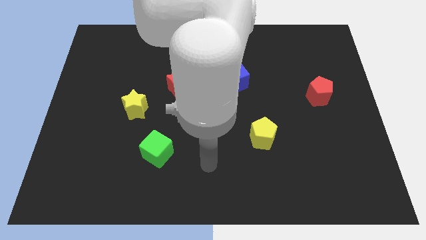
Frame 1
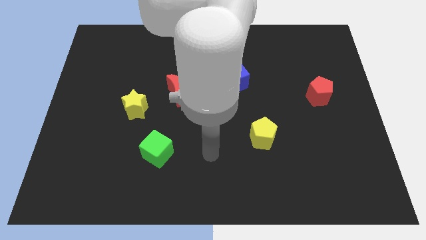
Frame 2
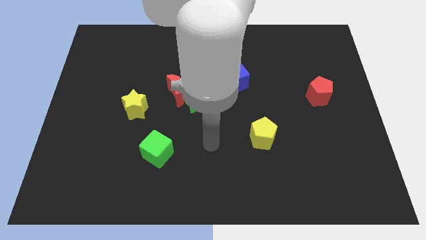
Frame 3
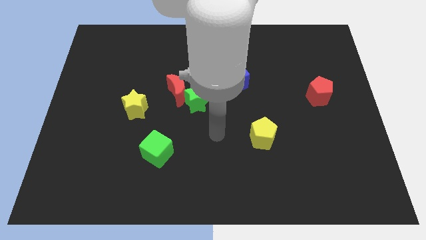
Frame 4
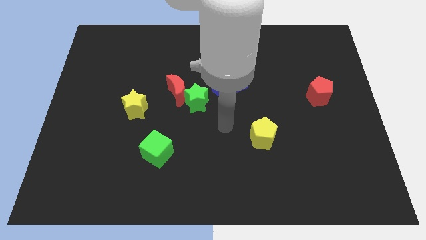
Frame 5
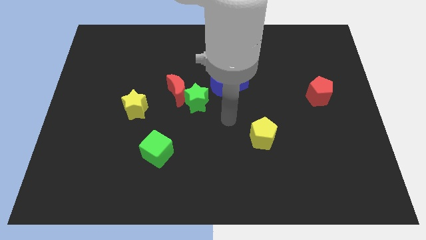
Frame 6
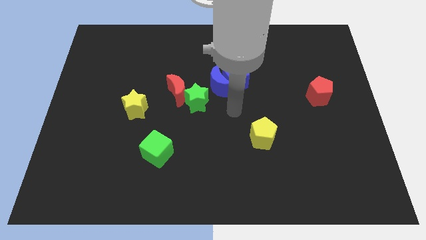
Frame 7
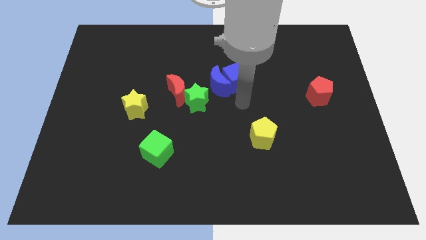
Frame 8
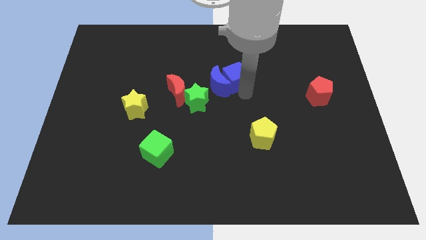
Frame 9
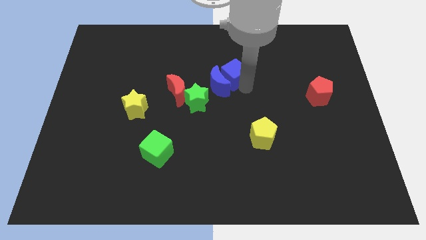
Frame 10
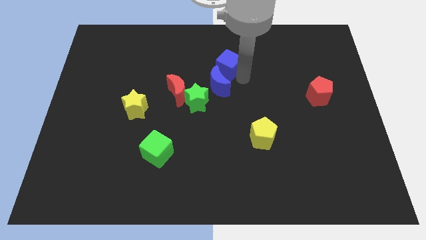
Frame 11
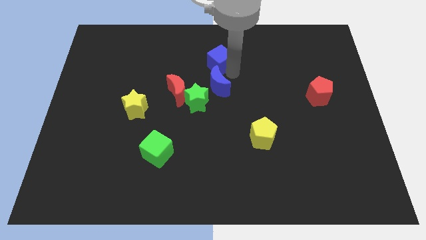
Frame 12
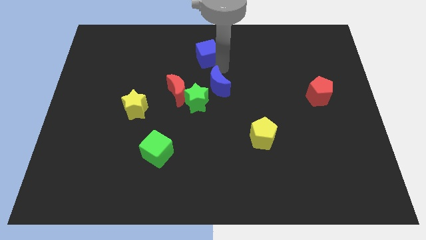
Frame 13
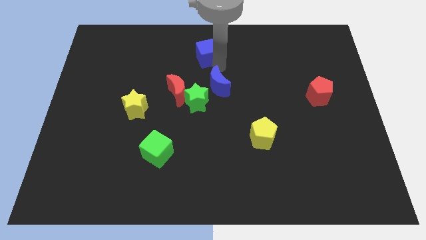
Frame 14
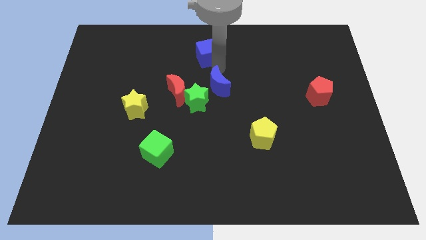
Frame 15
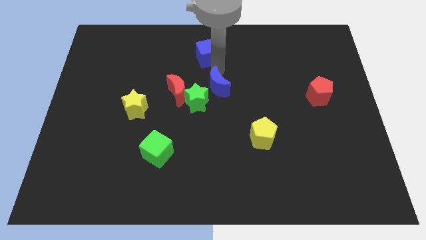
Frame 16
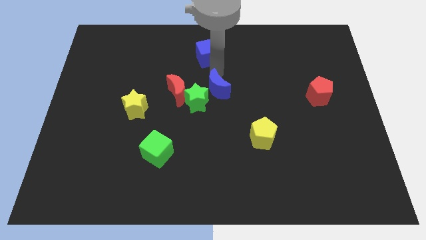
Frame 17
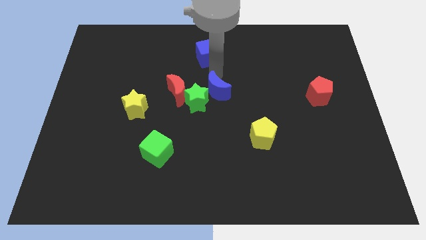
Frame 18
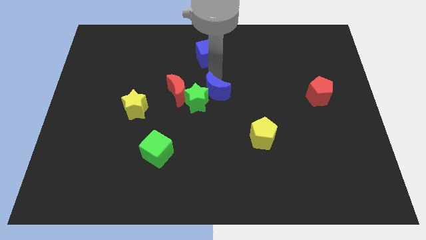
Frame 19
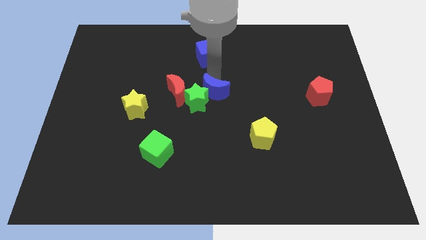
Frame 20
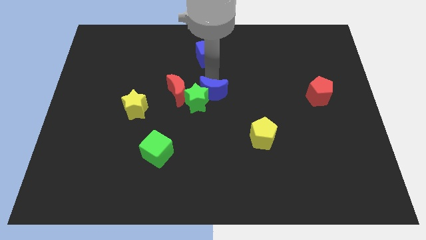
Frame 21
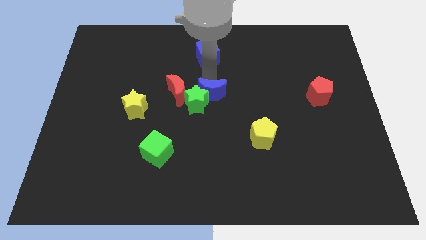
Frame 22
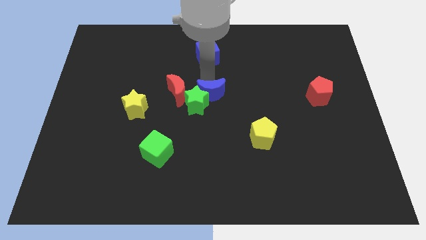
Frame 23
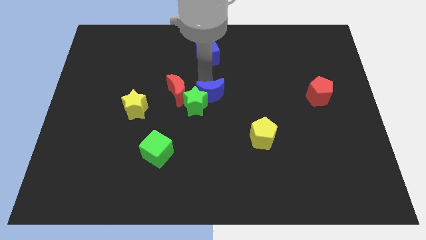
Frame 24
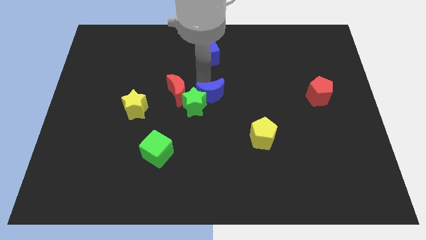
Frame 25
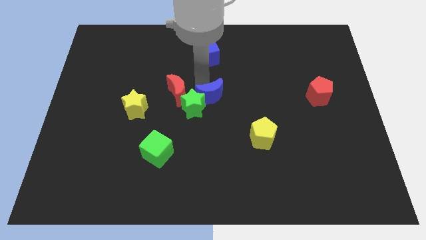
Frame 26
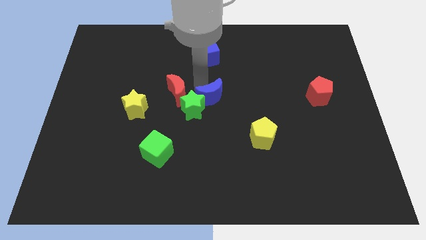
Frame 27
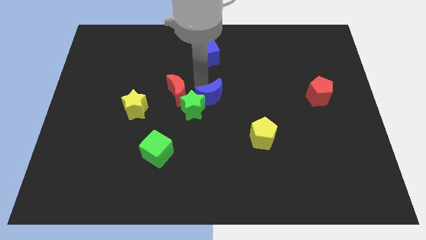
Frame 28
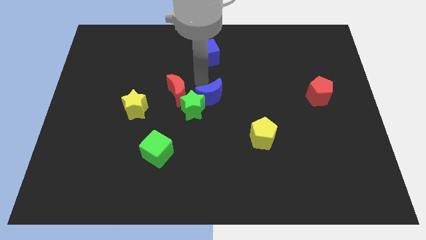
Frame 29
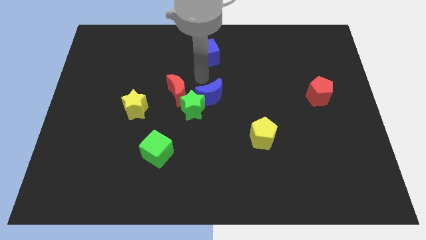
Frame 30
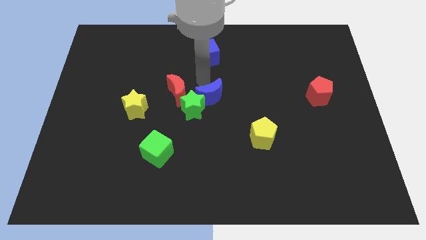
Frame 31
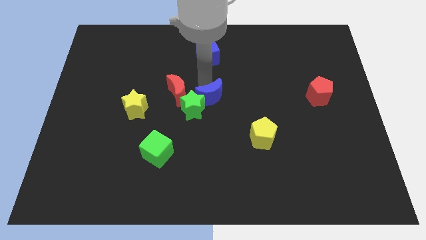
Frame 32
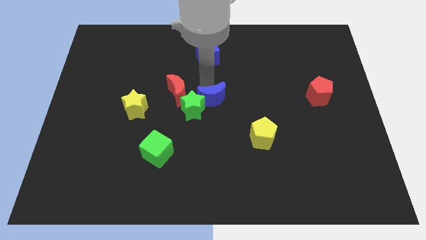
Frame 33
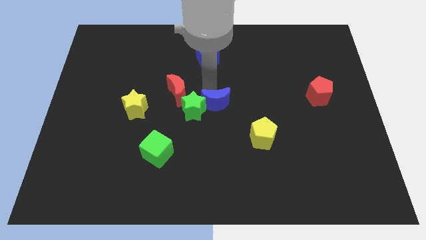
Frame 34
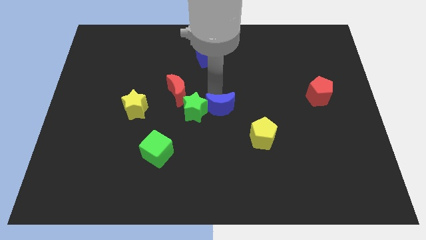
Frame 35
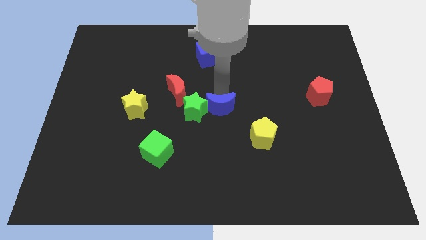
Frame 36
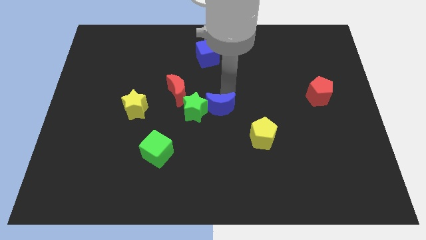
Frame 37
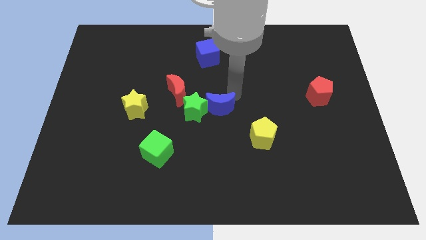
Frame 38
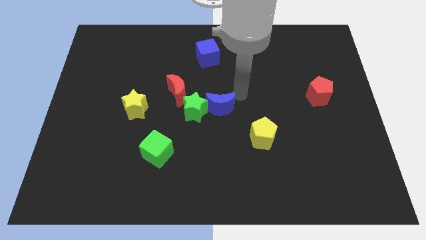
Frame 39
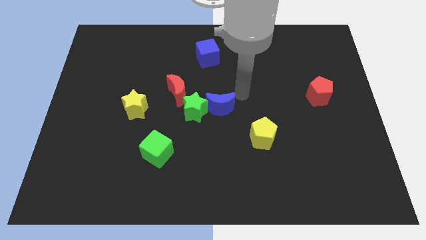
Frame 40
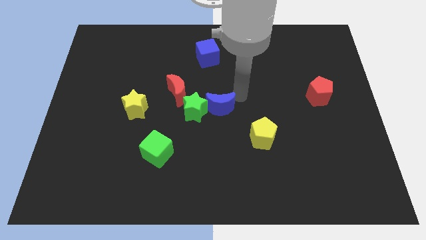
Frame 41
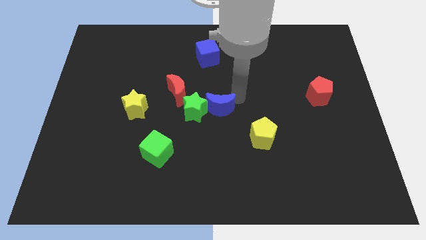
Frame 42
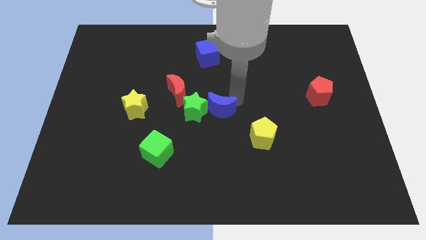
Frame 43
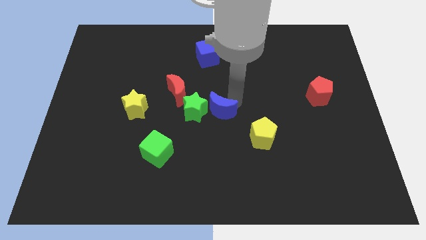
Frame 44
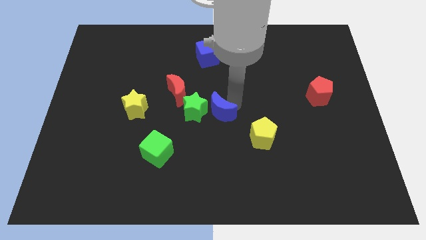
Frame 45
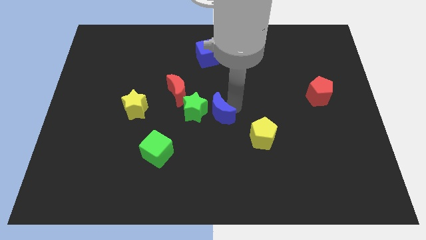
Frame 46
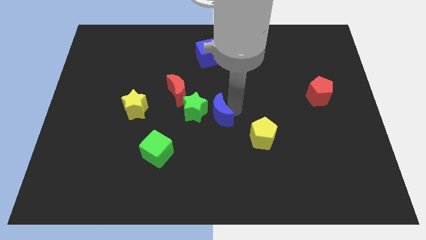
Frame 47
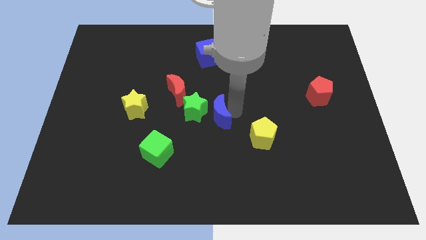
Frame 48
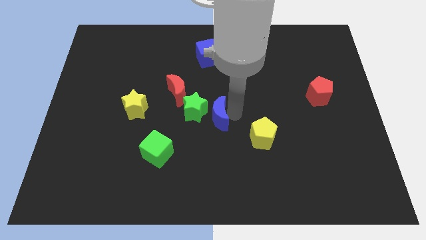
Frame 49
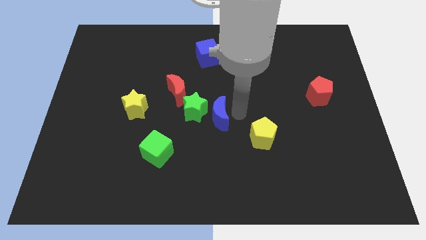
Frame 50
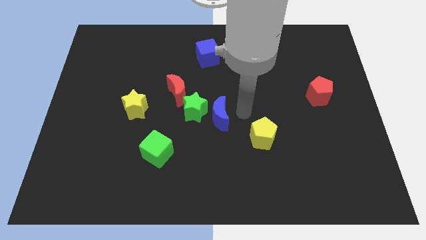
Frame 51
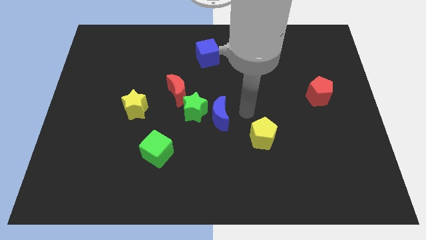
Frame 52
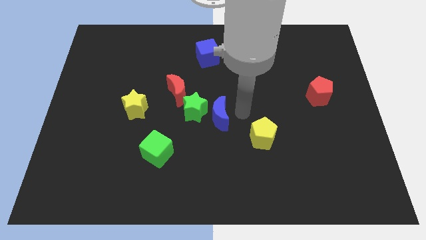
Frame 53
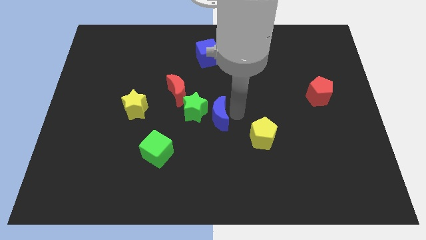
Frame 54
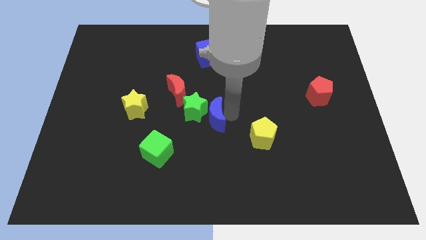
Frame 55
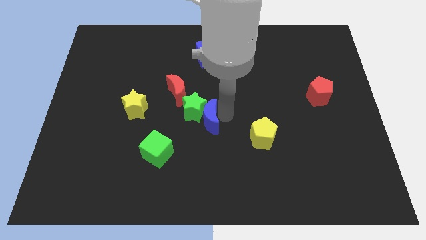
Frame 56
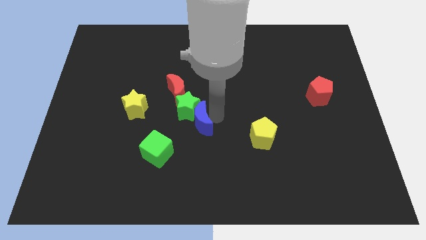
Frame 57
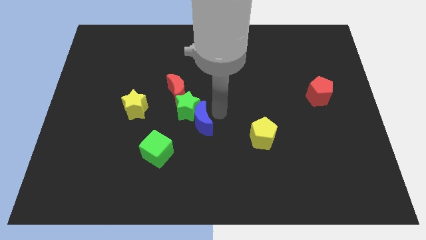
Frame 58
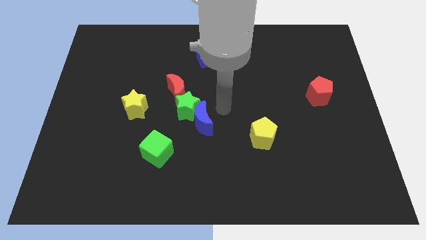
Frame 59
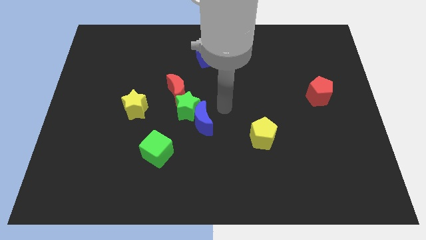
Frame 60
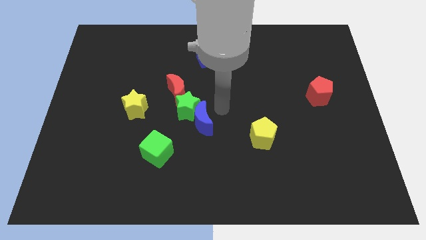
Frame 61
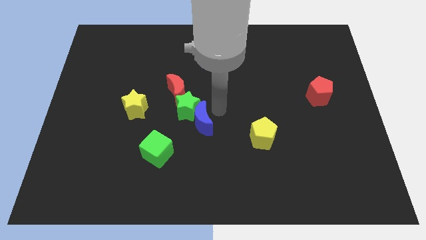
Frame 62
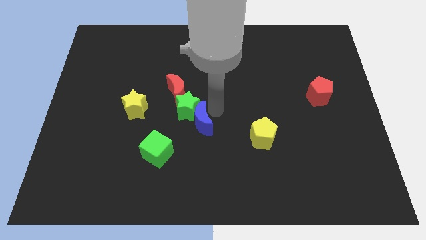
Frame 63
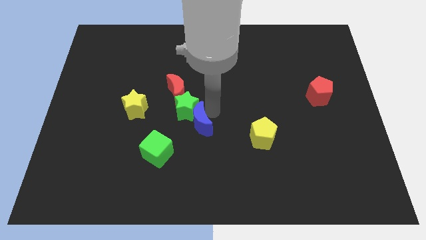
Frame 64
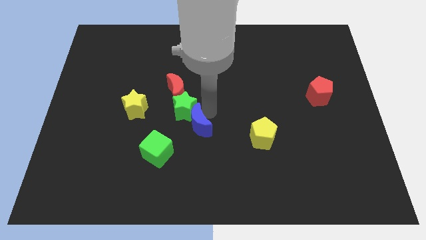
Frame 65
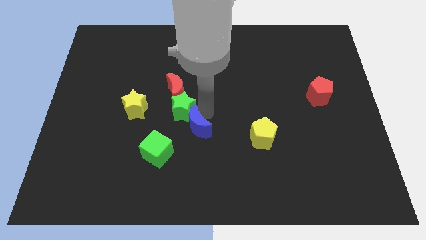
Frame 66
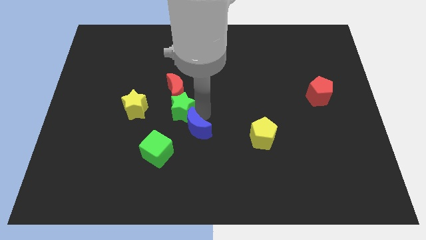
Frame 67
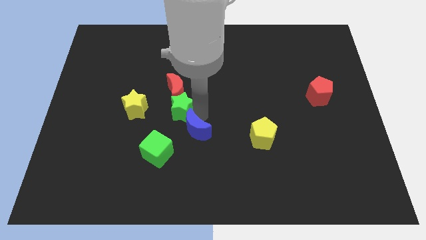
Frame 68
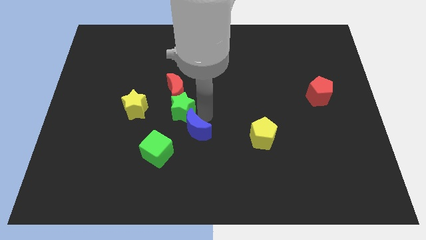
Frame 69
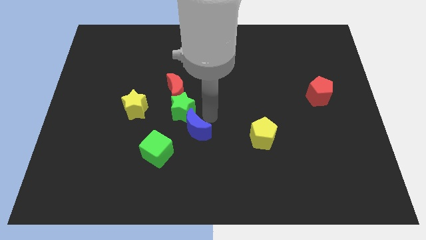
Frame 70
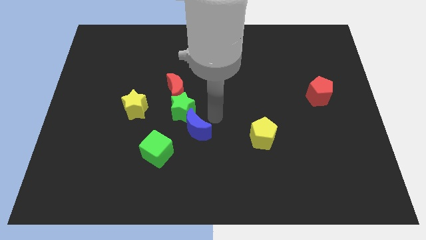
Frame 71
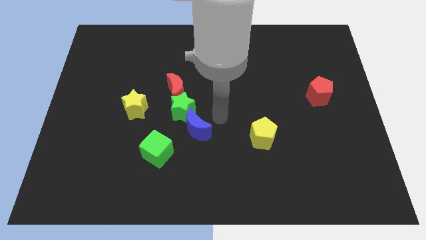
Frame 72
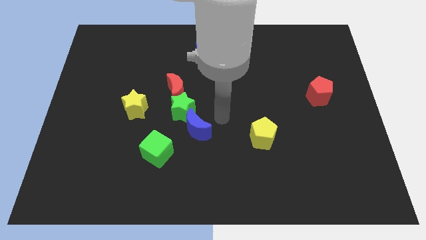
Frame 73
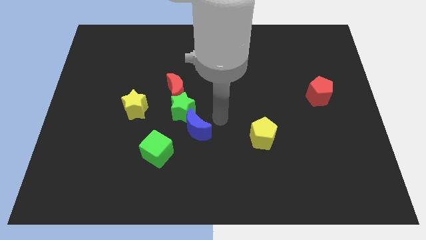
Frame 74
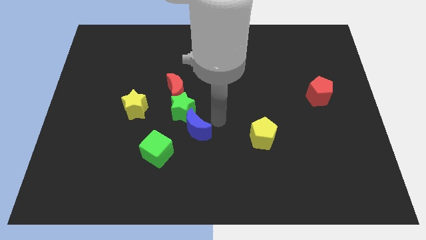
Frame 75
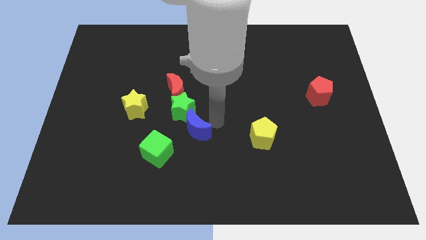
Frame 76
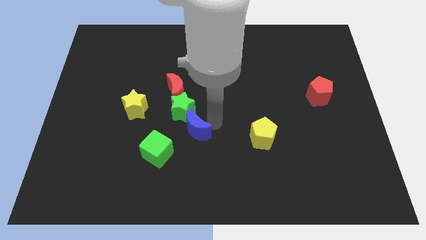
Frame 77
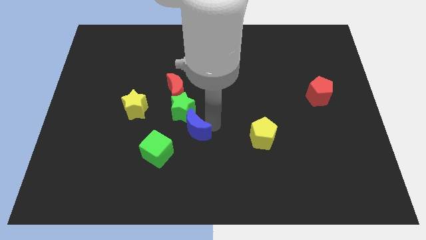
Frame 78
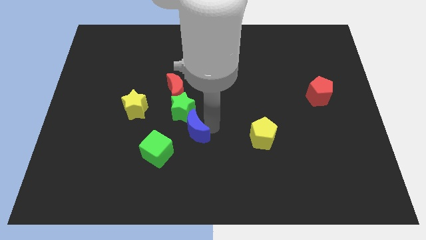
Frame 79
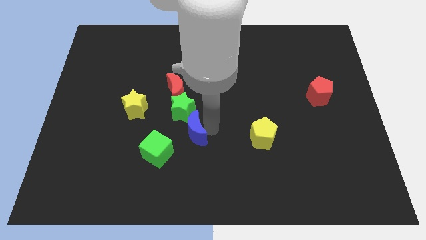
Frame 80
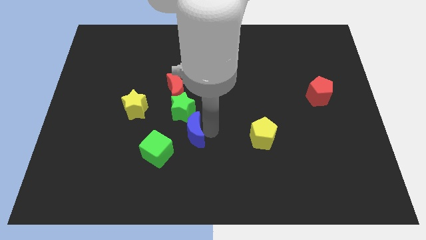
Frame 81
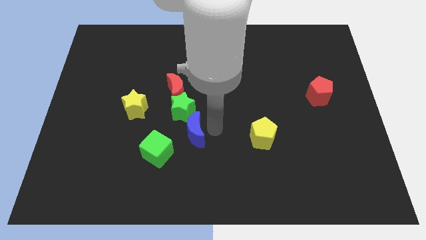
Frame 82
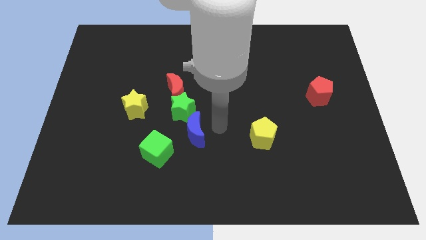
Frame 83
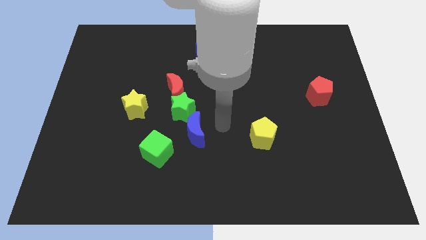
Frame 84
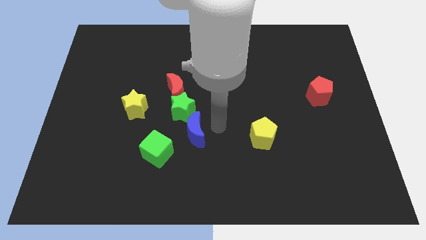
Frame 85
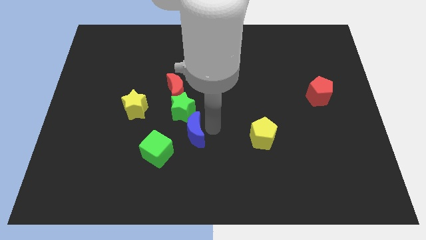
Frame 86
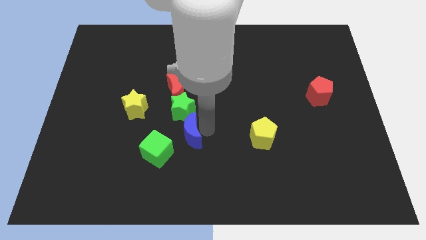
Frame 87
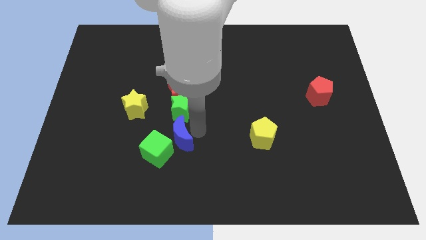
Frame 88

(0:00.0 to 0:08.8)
slide the blue moon towards the green cube
